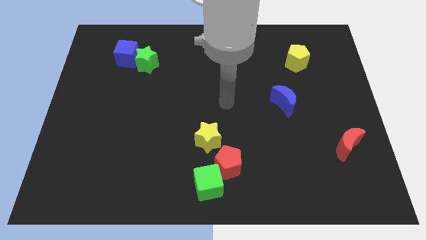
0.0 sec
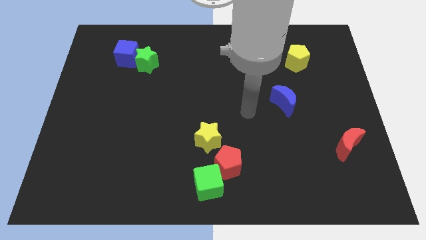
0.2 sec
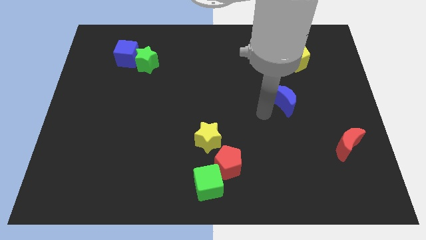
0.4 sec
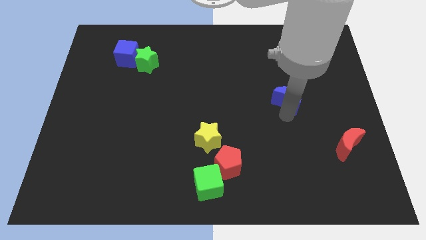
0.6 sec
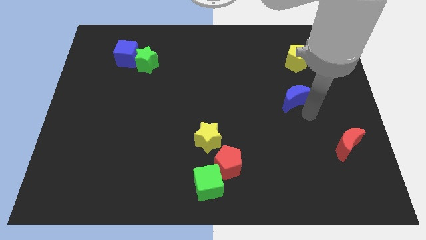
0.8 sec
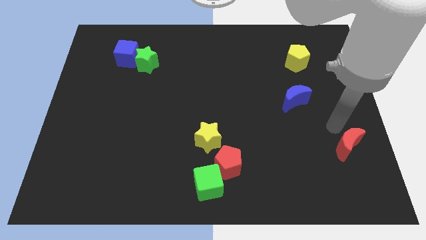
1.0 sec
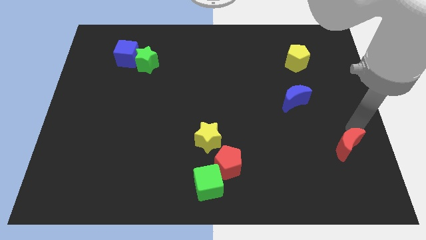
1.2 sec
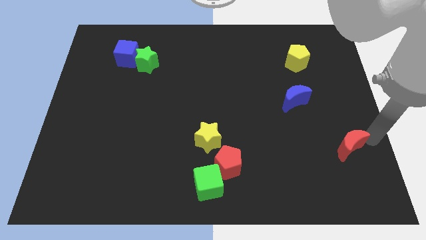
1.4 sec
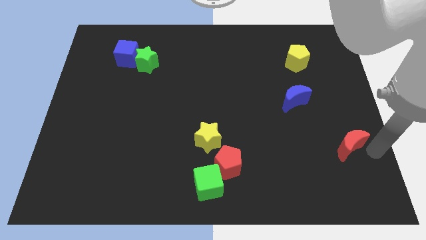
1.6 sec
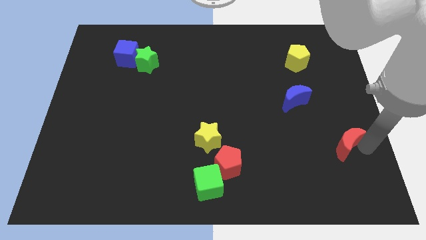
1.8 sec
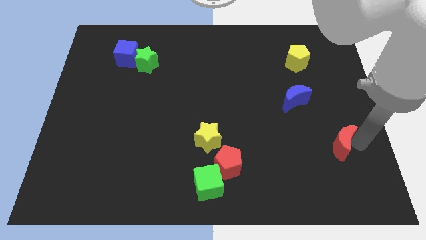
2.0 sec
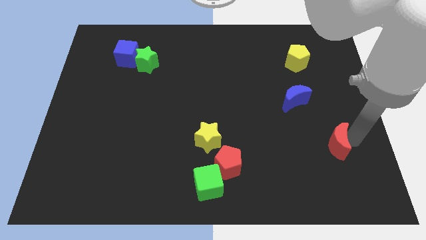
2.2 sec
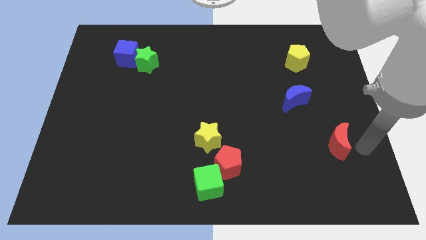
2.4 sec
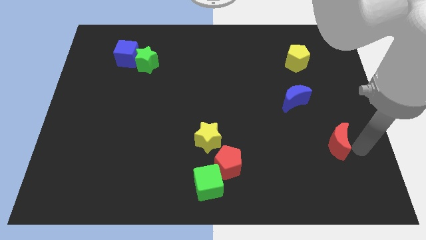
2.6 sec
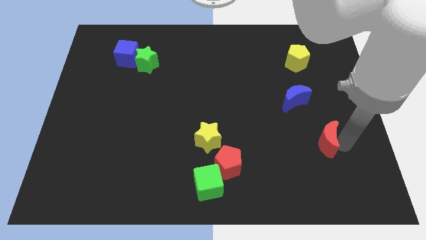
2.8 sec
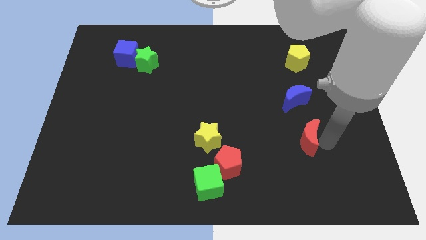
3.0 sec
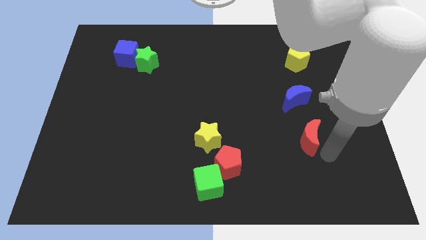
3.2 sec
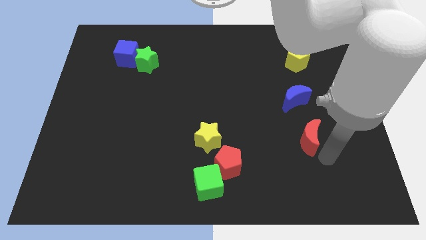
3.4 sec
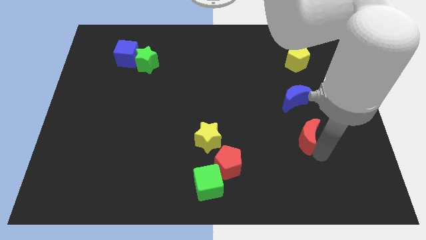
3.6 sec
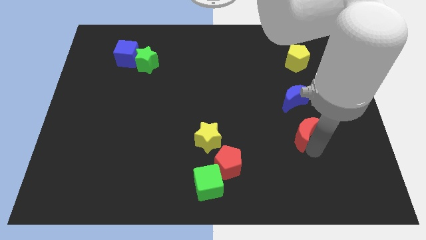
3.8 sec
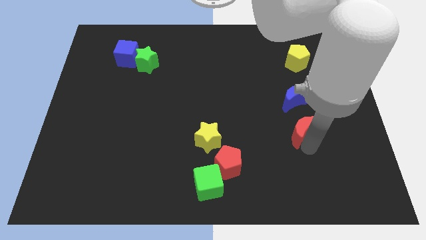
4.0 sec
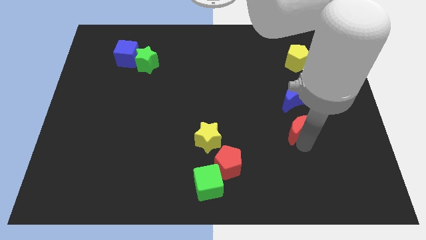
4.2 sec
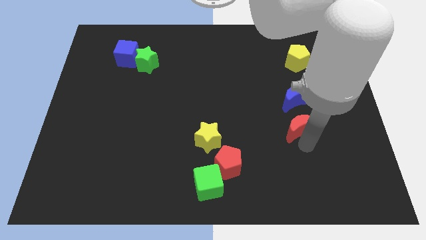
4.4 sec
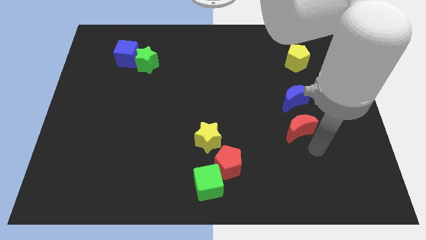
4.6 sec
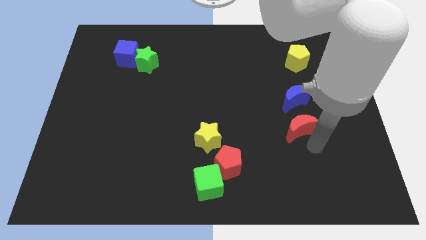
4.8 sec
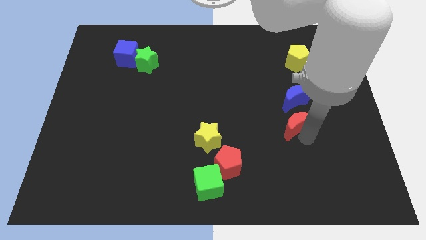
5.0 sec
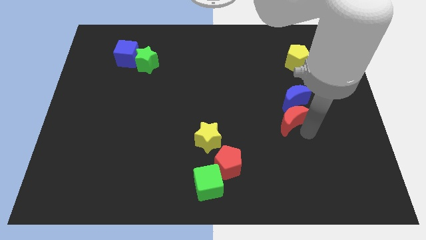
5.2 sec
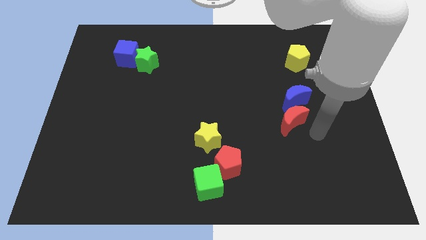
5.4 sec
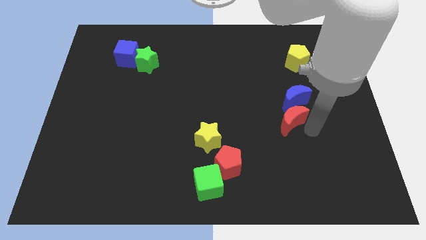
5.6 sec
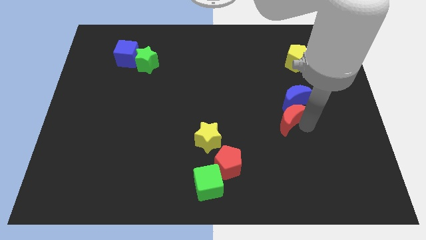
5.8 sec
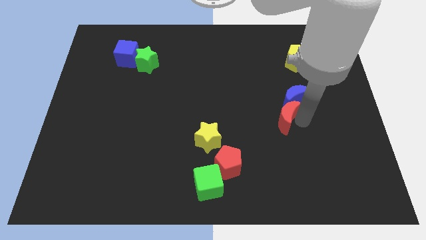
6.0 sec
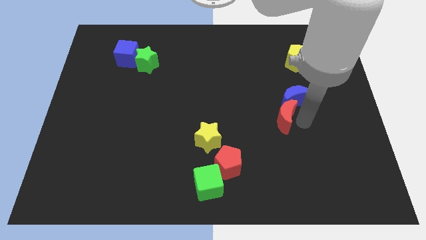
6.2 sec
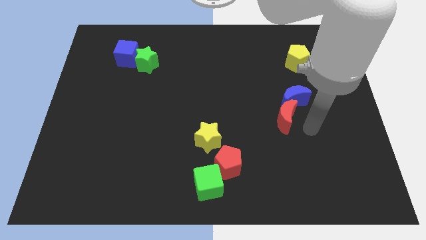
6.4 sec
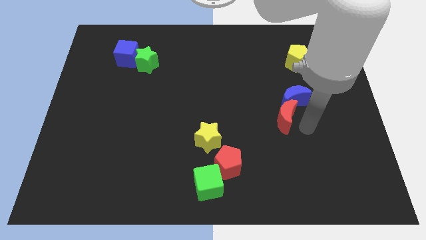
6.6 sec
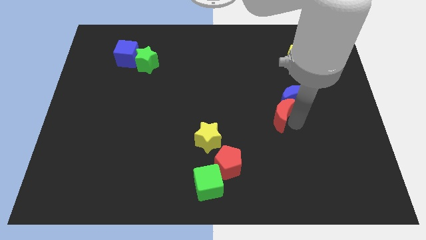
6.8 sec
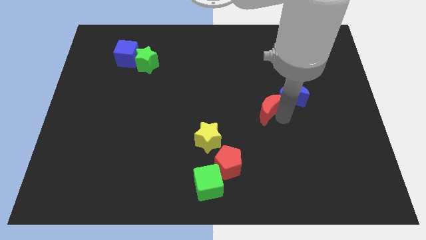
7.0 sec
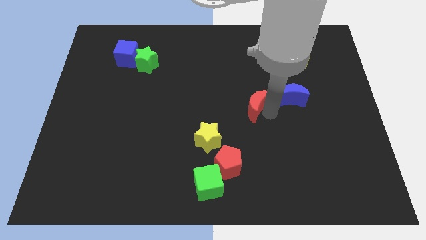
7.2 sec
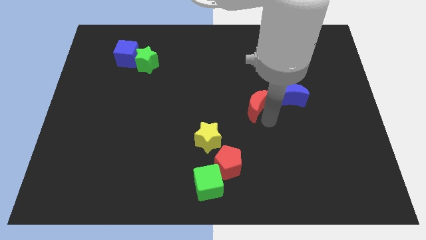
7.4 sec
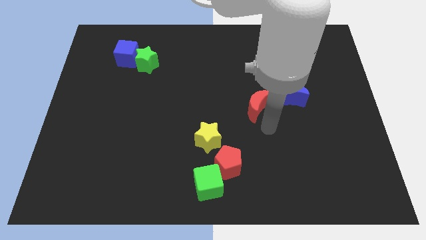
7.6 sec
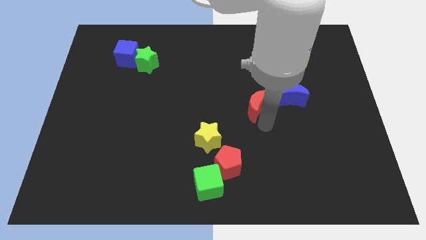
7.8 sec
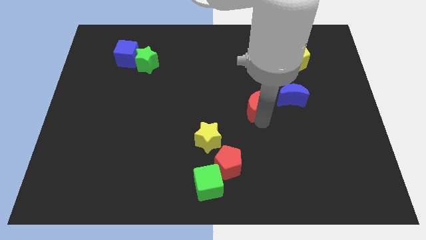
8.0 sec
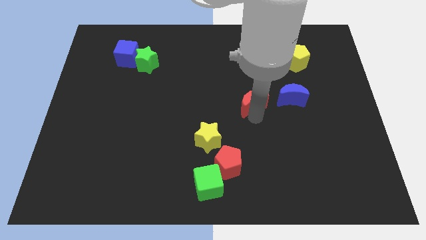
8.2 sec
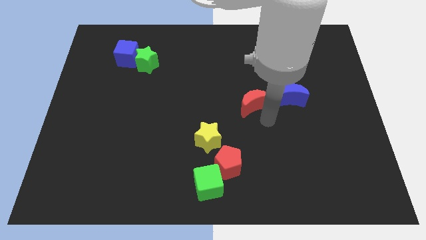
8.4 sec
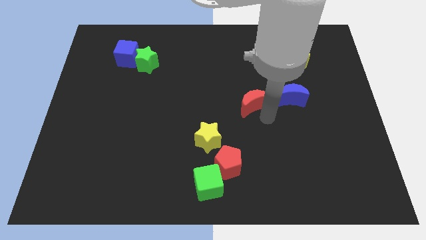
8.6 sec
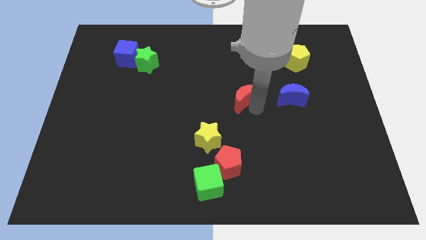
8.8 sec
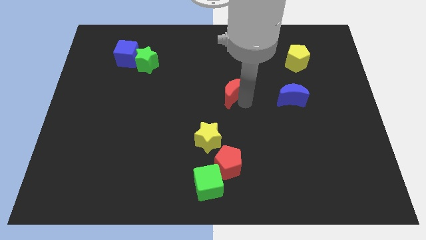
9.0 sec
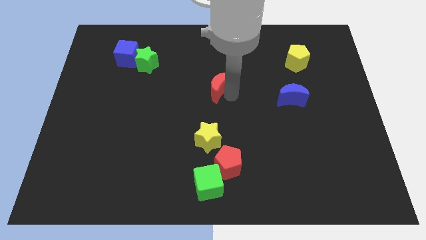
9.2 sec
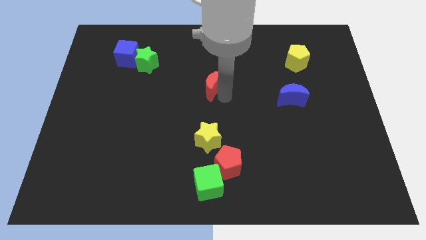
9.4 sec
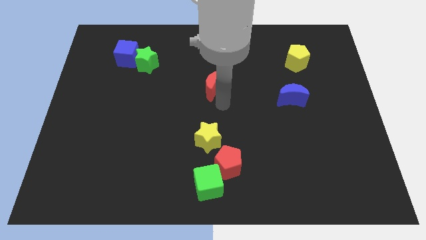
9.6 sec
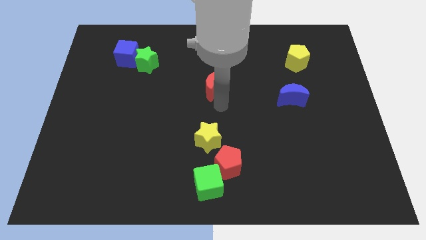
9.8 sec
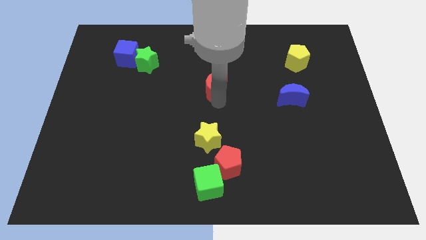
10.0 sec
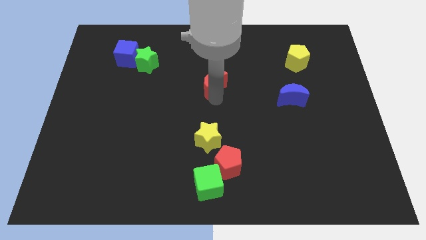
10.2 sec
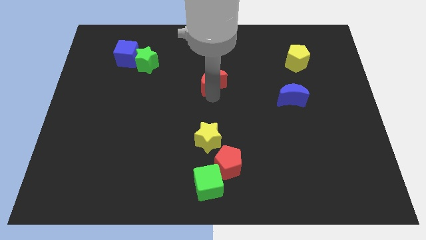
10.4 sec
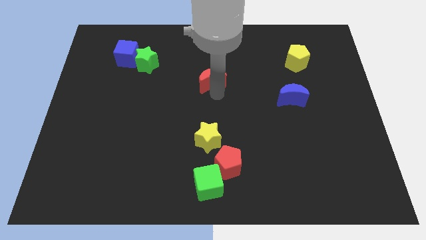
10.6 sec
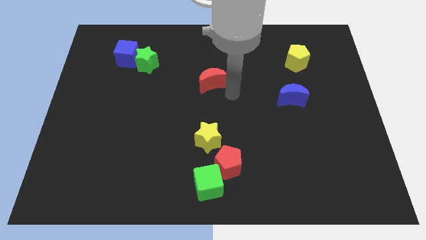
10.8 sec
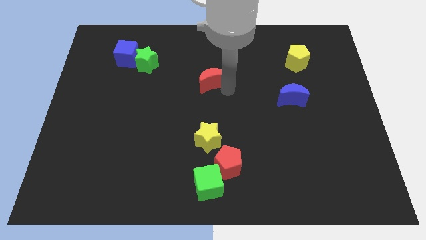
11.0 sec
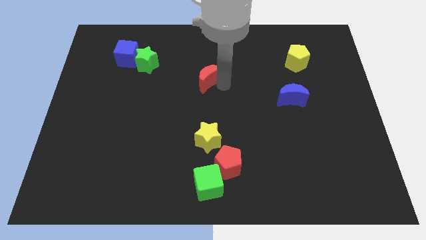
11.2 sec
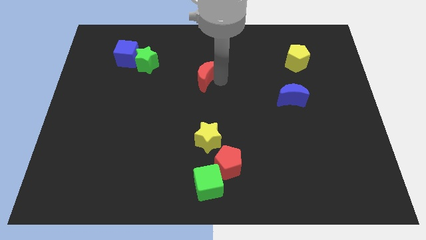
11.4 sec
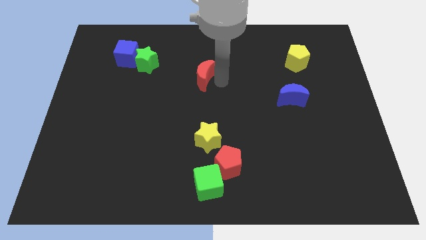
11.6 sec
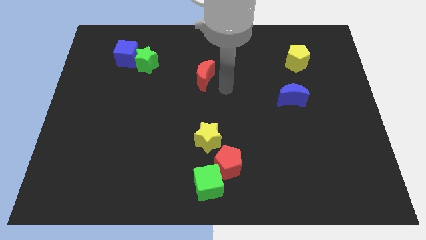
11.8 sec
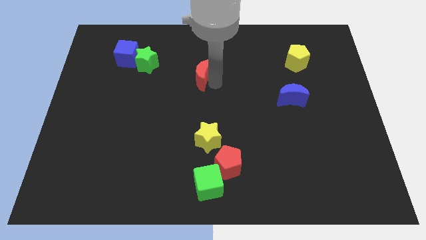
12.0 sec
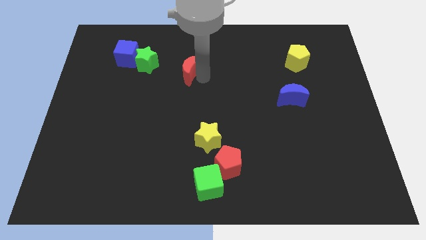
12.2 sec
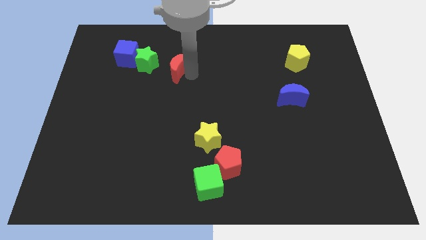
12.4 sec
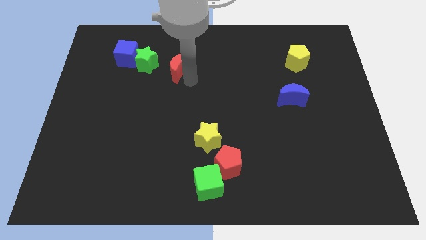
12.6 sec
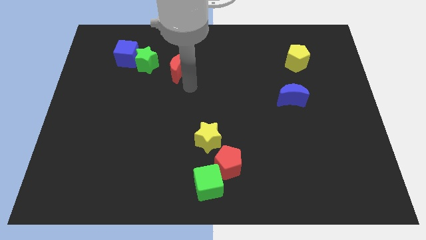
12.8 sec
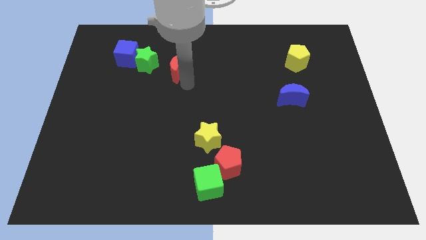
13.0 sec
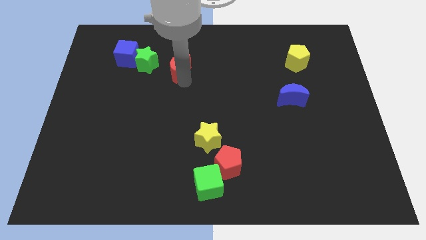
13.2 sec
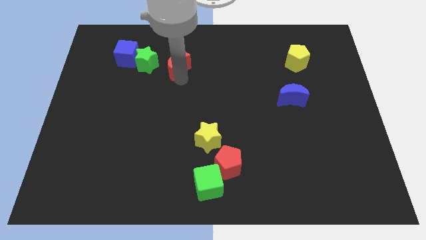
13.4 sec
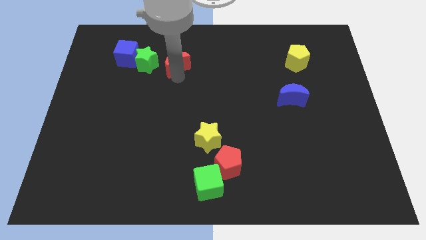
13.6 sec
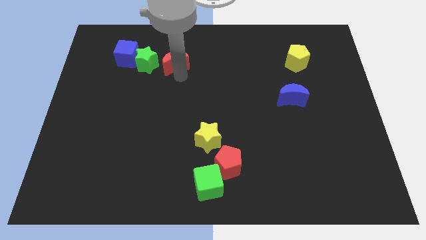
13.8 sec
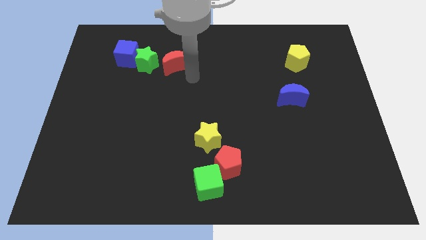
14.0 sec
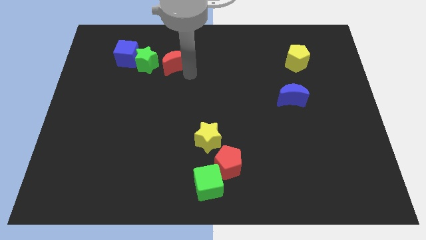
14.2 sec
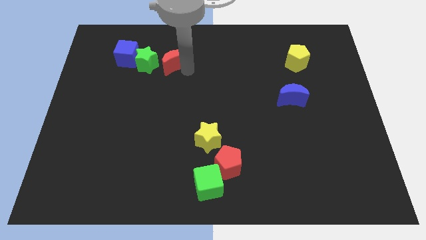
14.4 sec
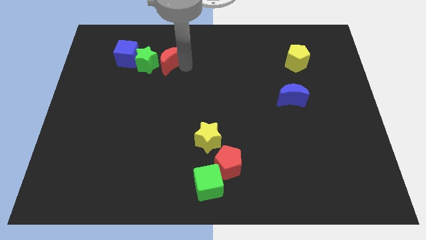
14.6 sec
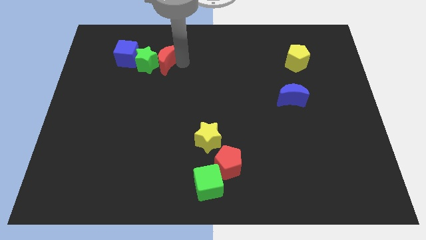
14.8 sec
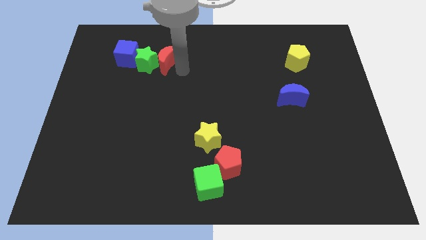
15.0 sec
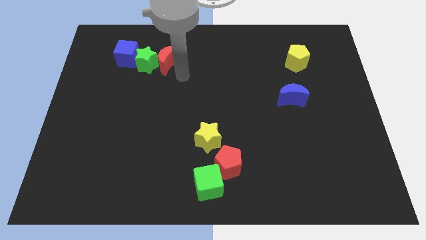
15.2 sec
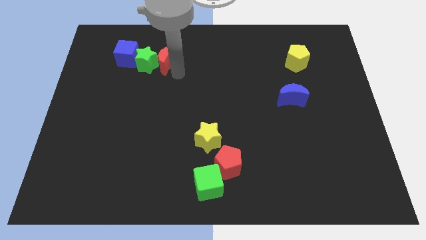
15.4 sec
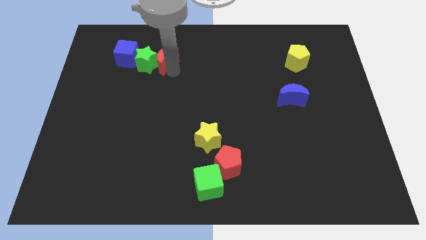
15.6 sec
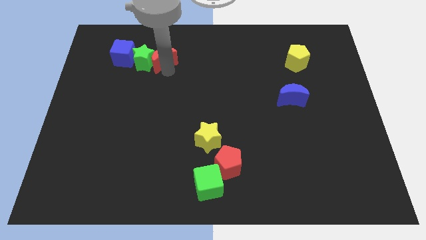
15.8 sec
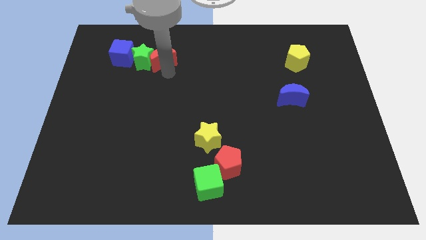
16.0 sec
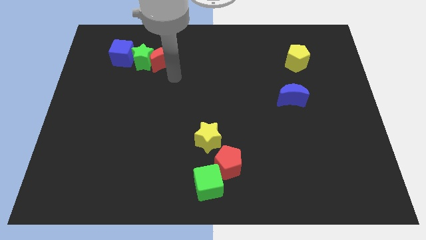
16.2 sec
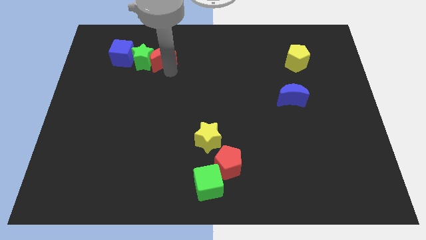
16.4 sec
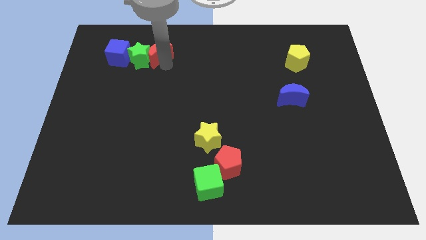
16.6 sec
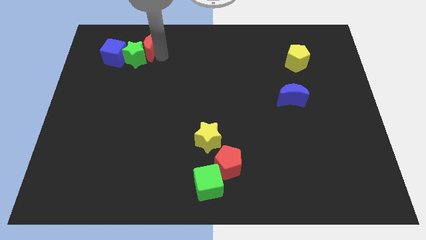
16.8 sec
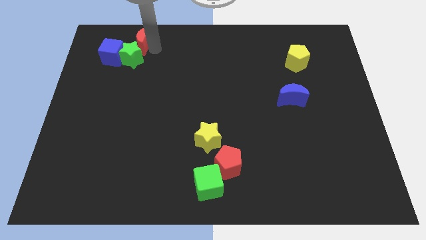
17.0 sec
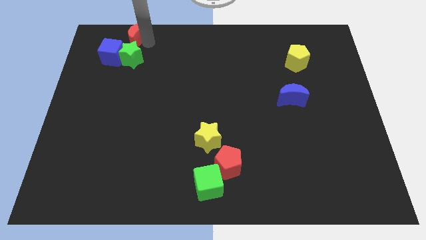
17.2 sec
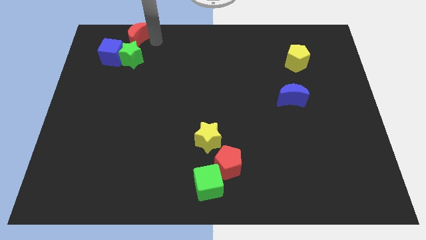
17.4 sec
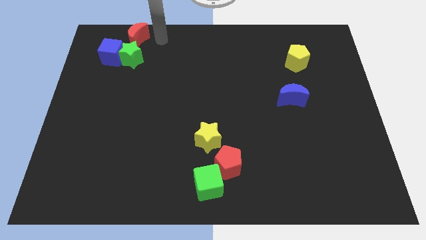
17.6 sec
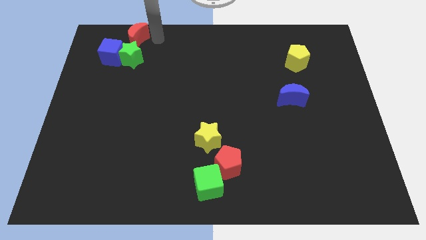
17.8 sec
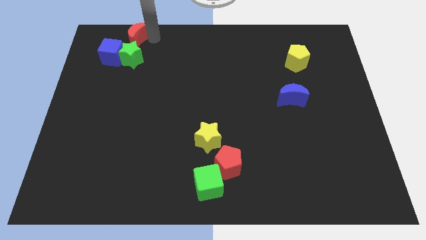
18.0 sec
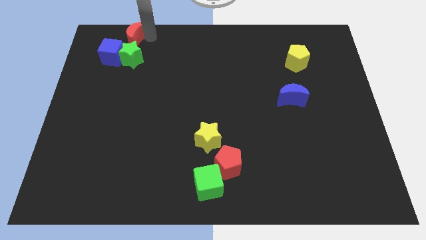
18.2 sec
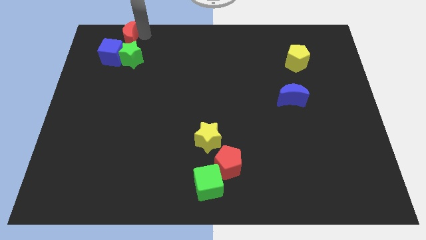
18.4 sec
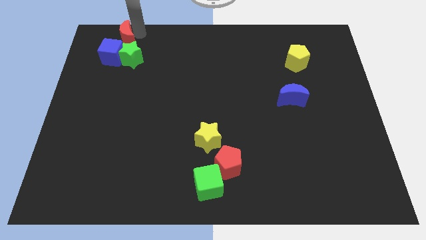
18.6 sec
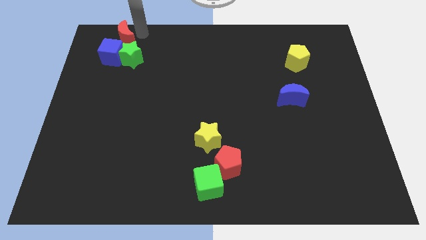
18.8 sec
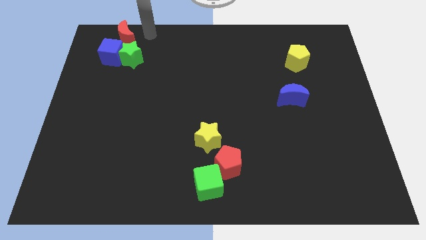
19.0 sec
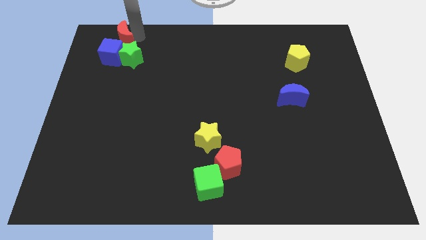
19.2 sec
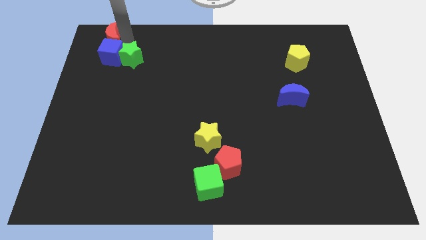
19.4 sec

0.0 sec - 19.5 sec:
push the red moon to the top left corner
